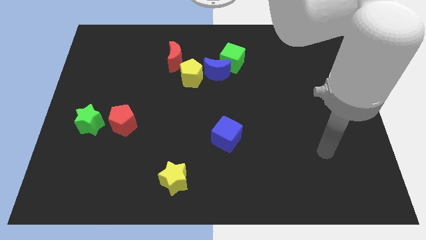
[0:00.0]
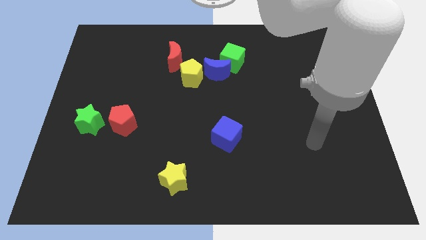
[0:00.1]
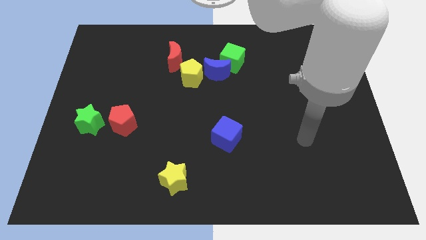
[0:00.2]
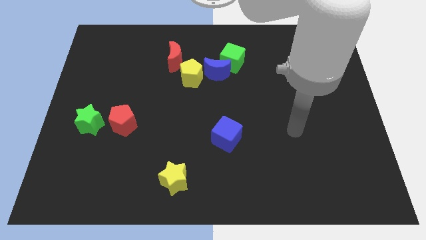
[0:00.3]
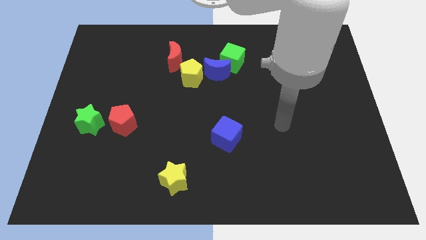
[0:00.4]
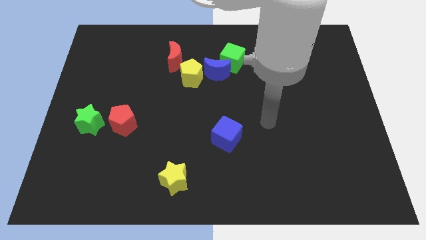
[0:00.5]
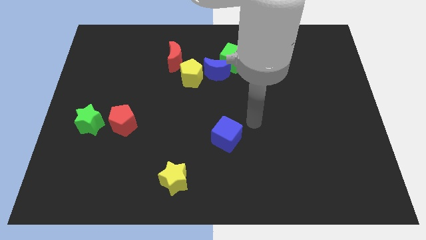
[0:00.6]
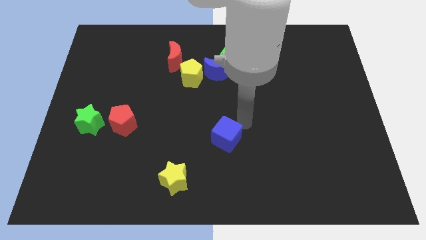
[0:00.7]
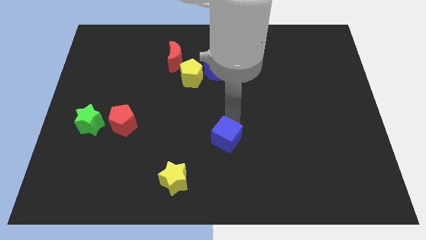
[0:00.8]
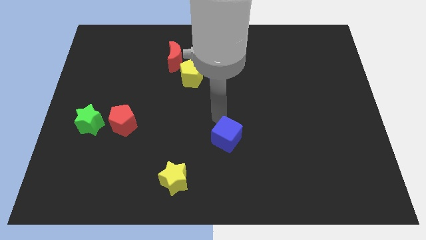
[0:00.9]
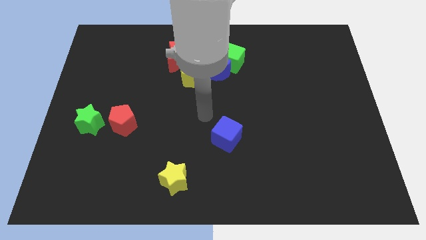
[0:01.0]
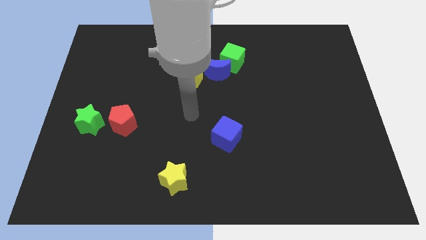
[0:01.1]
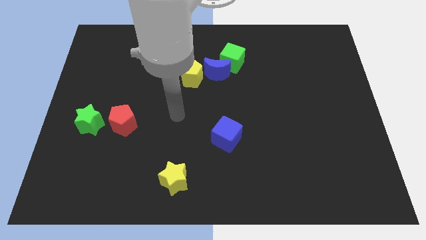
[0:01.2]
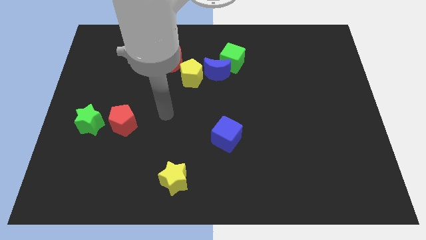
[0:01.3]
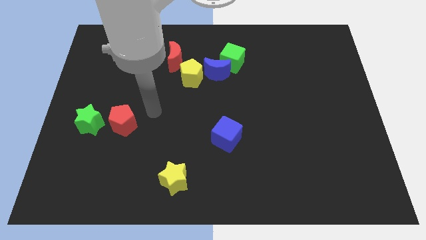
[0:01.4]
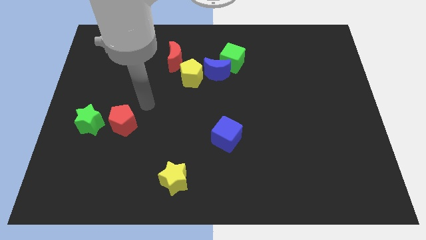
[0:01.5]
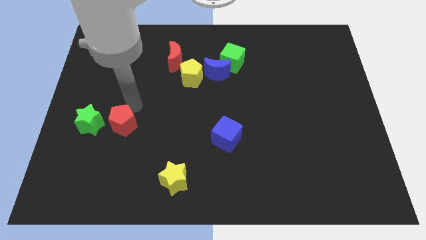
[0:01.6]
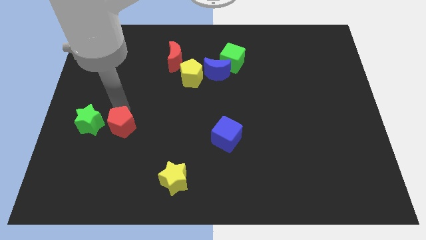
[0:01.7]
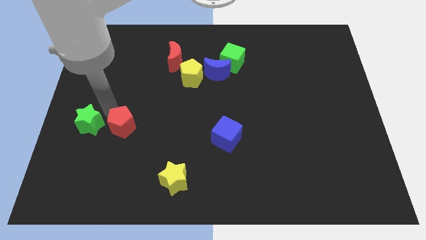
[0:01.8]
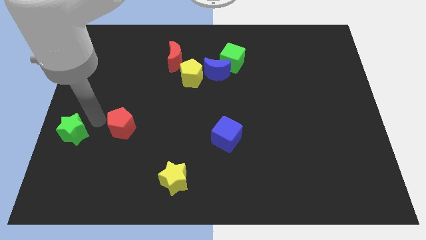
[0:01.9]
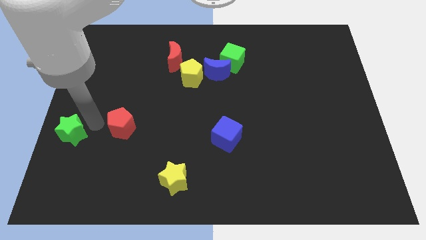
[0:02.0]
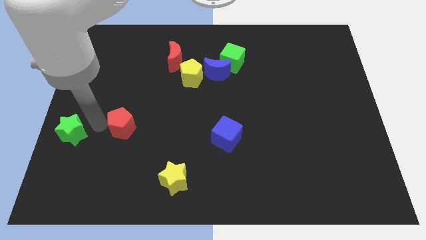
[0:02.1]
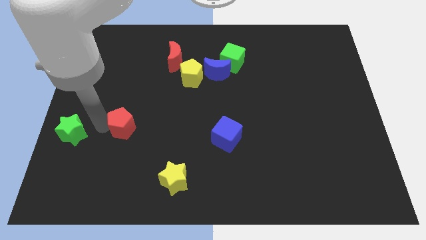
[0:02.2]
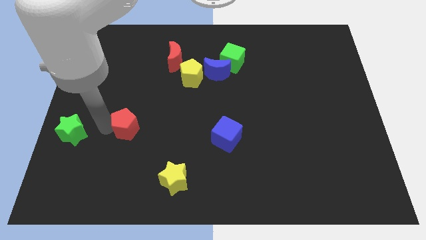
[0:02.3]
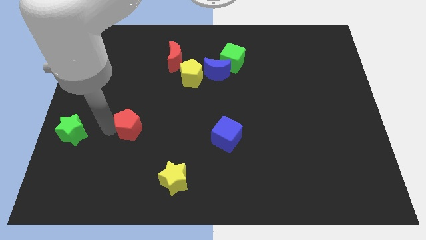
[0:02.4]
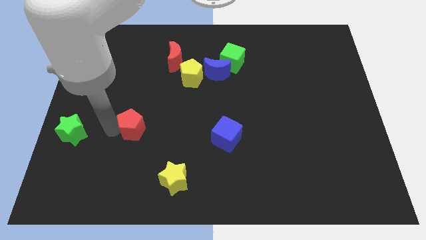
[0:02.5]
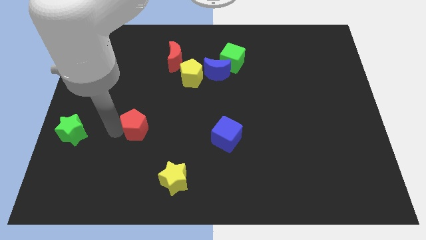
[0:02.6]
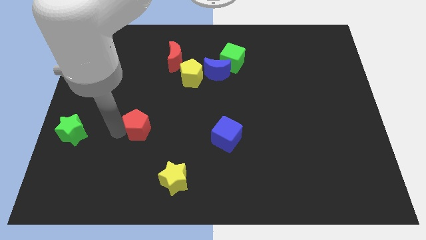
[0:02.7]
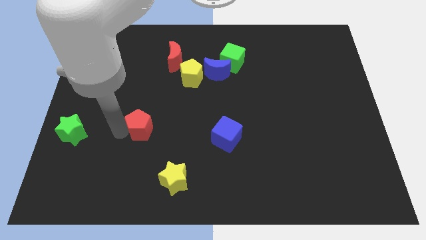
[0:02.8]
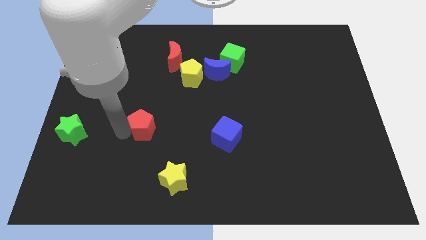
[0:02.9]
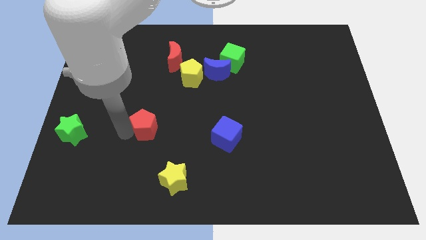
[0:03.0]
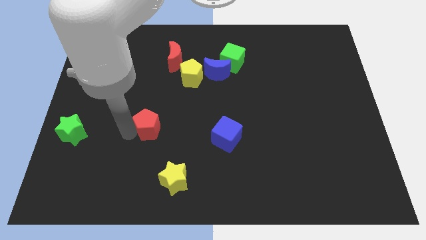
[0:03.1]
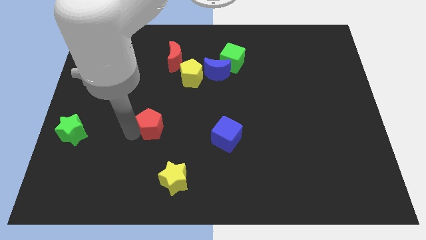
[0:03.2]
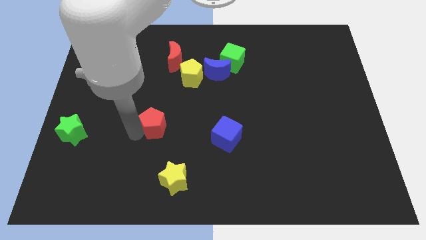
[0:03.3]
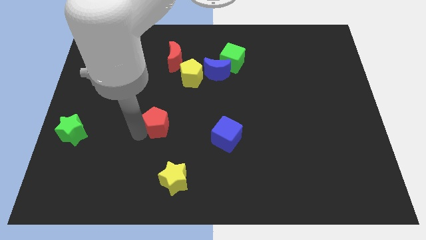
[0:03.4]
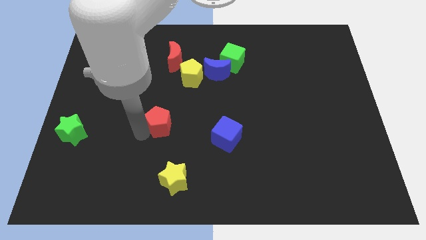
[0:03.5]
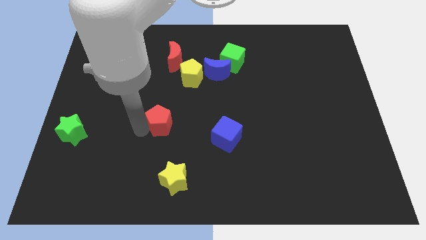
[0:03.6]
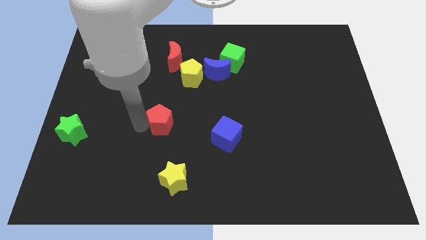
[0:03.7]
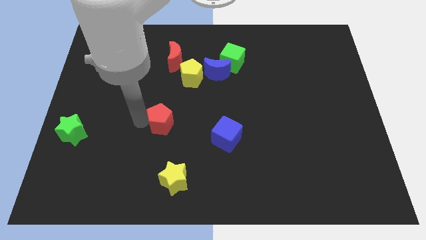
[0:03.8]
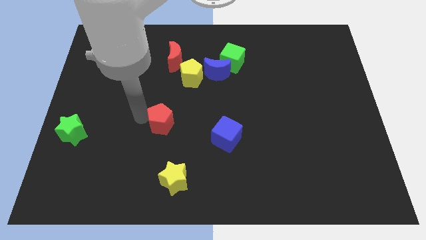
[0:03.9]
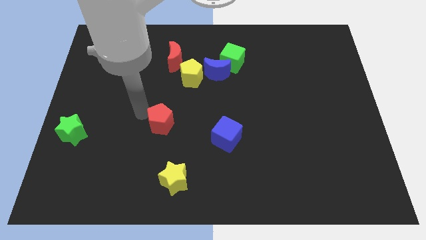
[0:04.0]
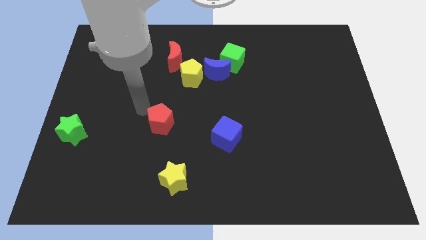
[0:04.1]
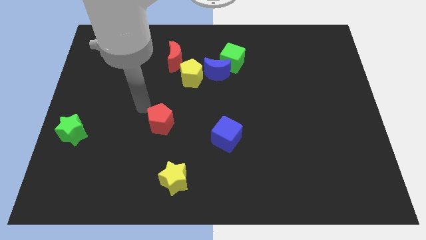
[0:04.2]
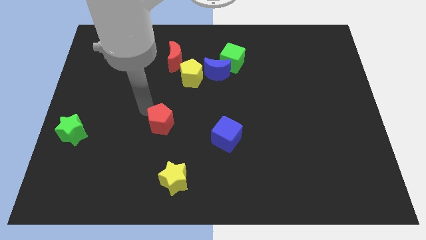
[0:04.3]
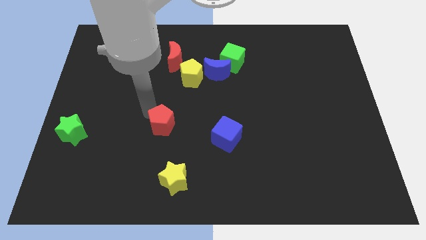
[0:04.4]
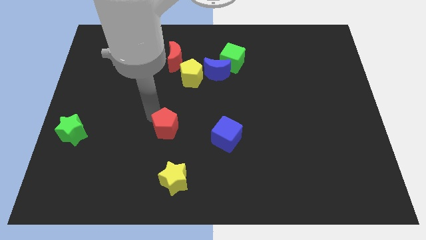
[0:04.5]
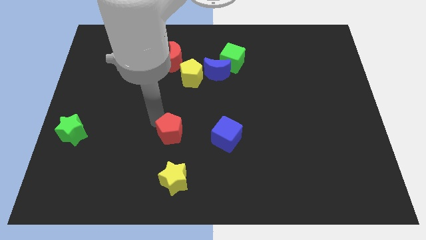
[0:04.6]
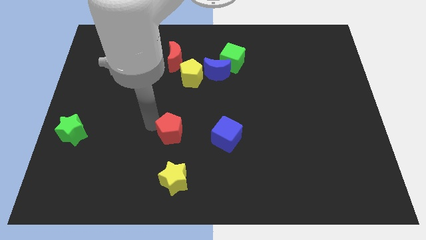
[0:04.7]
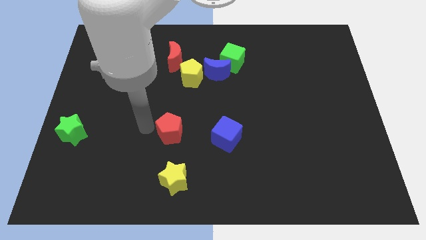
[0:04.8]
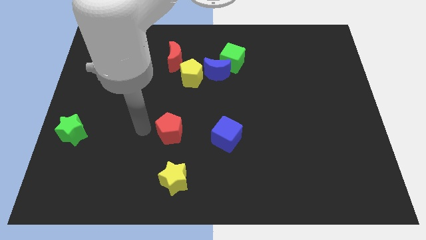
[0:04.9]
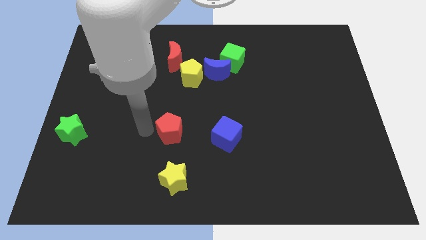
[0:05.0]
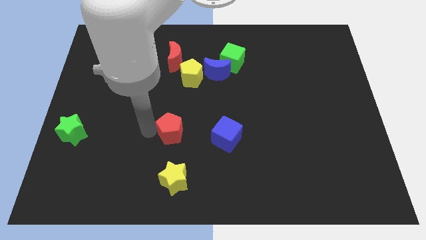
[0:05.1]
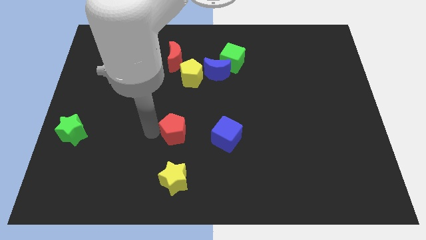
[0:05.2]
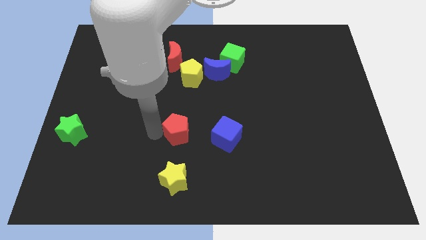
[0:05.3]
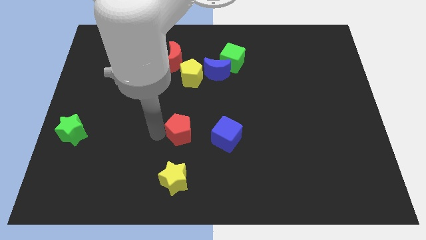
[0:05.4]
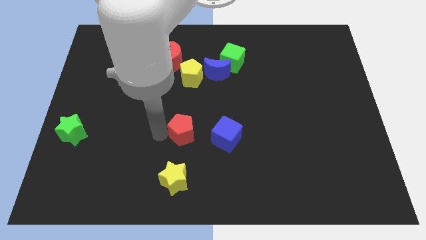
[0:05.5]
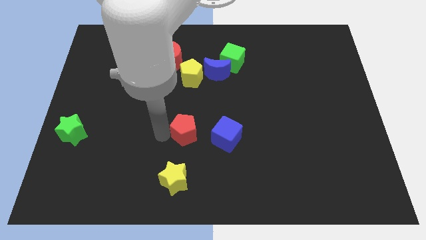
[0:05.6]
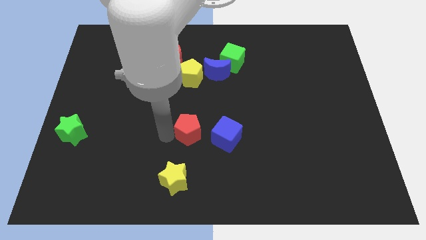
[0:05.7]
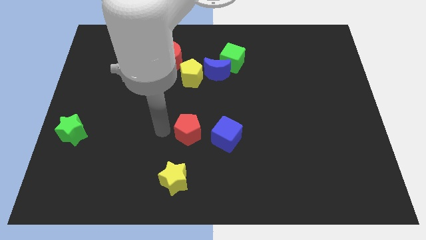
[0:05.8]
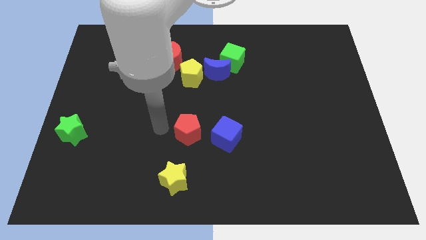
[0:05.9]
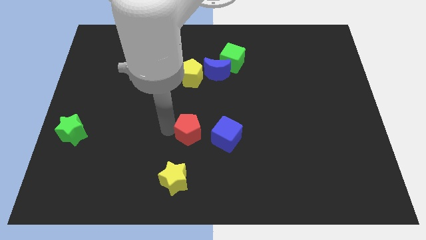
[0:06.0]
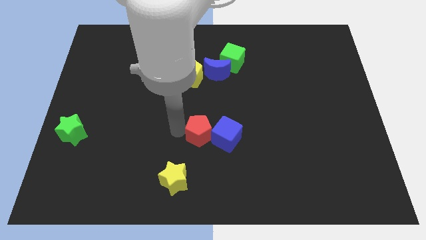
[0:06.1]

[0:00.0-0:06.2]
move the red pentagon next to the blue cube

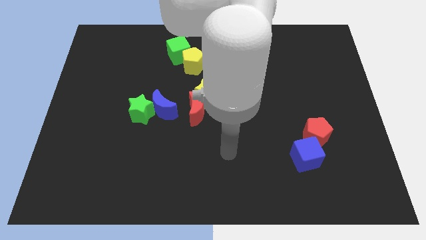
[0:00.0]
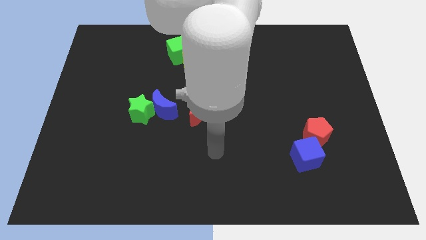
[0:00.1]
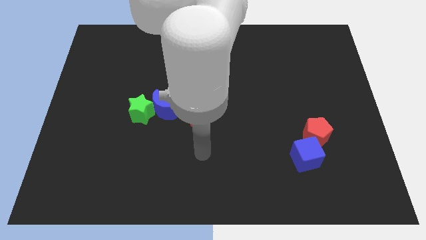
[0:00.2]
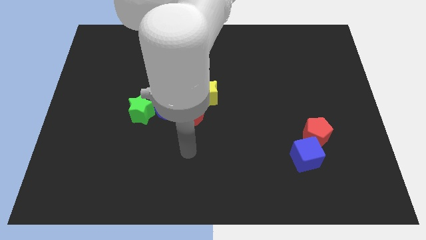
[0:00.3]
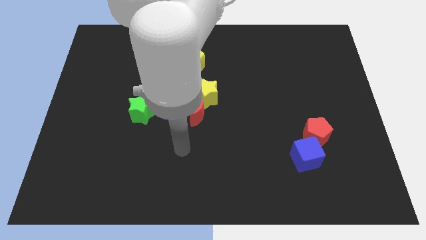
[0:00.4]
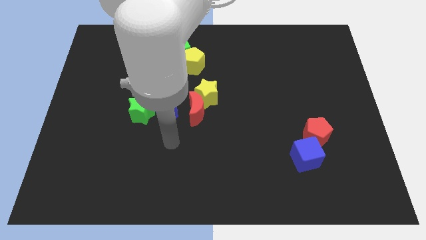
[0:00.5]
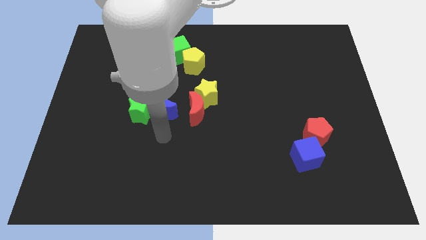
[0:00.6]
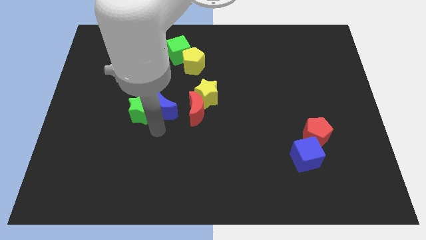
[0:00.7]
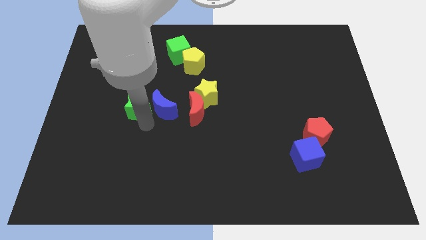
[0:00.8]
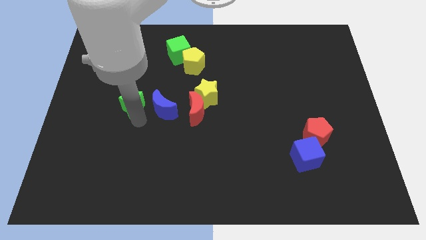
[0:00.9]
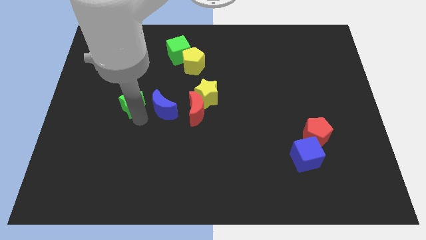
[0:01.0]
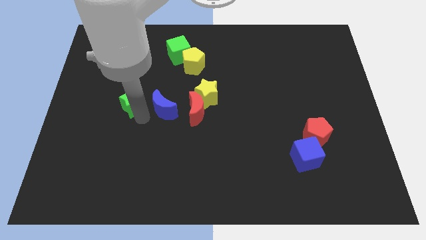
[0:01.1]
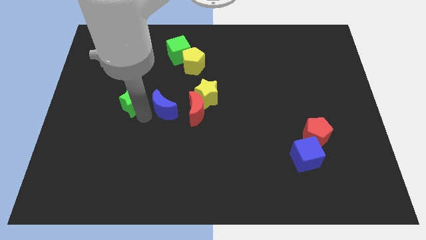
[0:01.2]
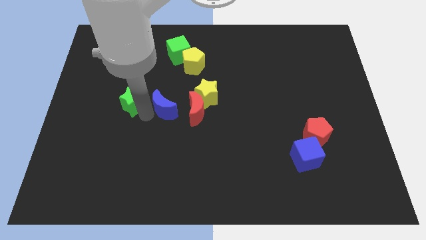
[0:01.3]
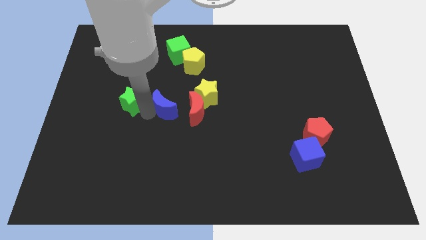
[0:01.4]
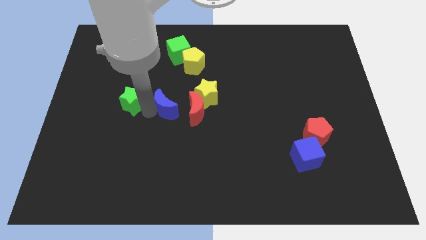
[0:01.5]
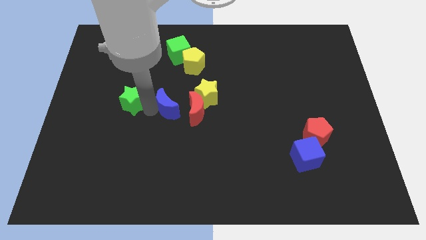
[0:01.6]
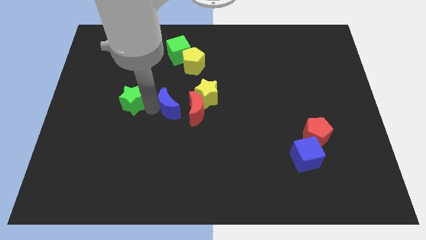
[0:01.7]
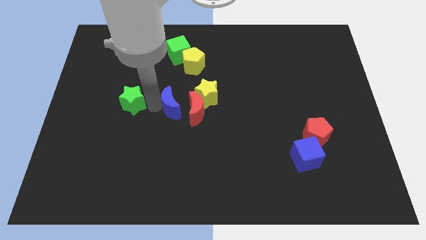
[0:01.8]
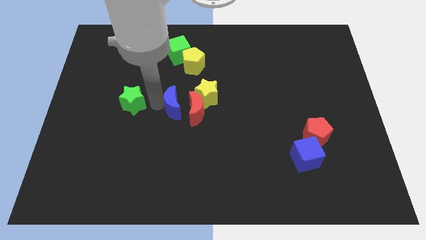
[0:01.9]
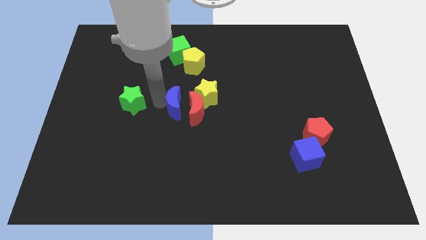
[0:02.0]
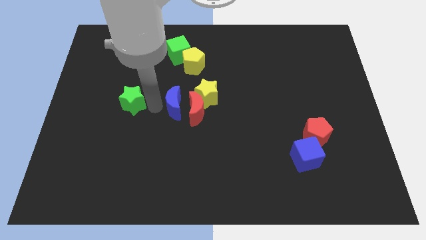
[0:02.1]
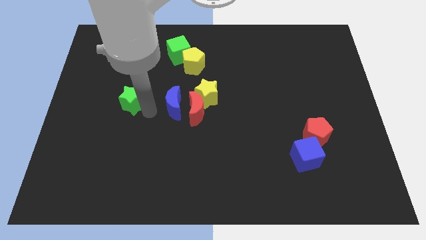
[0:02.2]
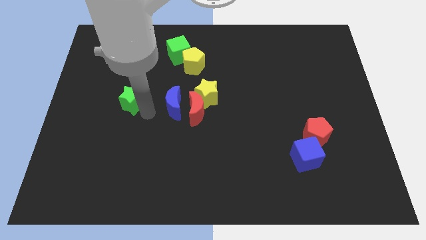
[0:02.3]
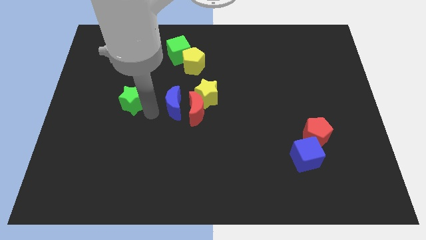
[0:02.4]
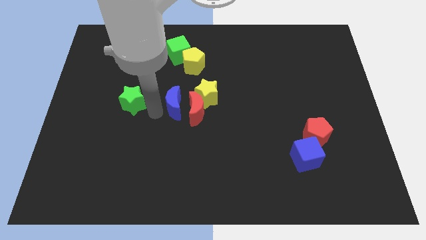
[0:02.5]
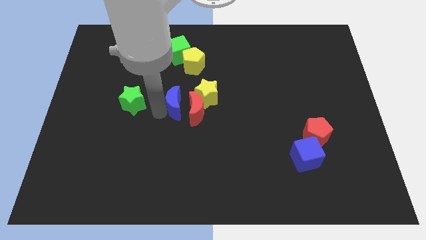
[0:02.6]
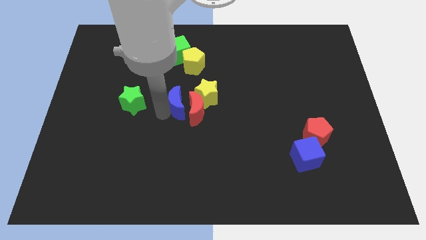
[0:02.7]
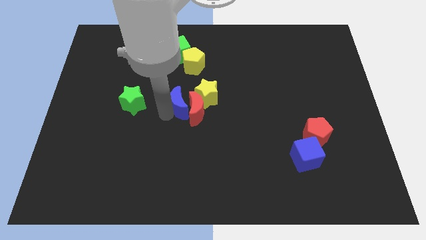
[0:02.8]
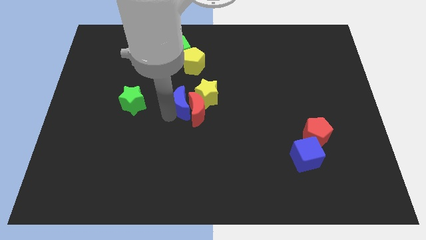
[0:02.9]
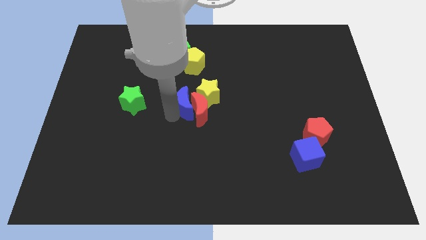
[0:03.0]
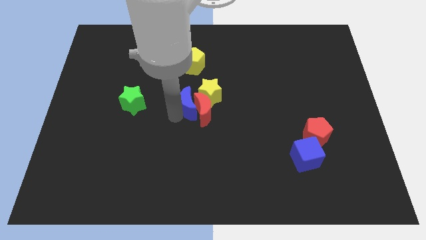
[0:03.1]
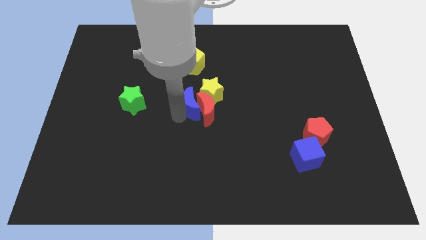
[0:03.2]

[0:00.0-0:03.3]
slide the blue moon next to the yellow star
